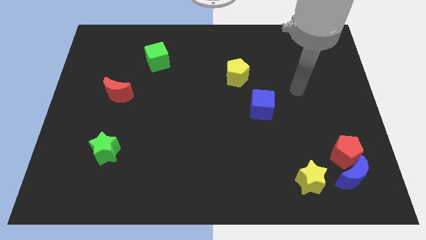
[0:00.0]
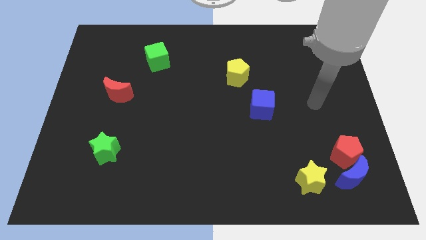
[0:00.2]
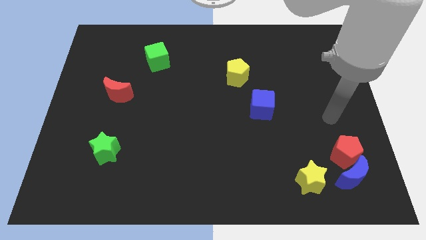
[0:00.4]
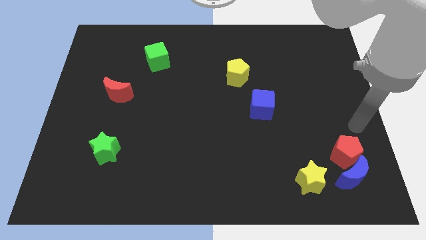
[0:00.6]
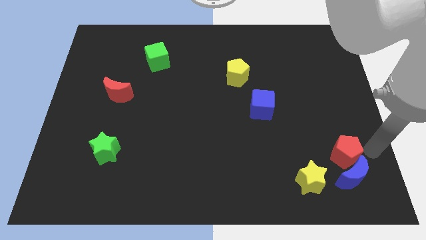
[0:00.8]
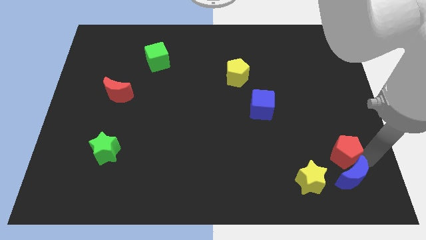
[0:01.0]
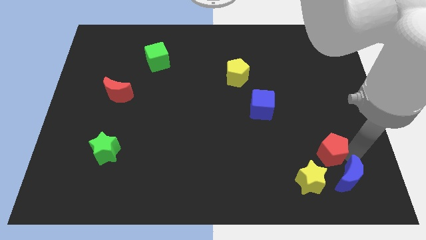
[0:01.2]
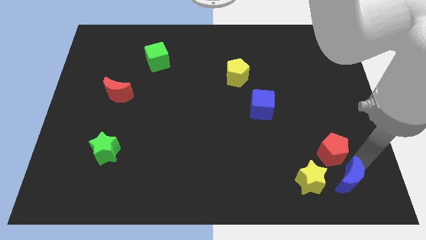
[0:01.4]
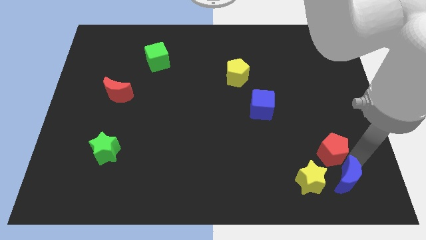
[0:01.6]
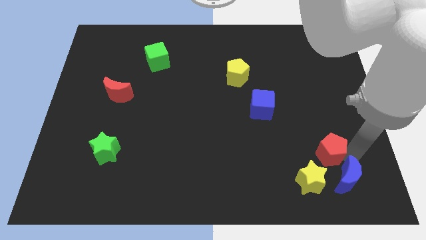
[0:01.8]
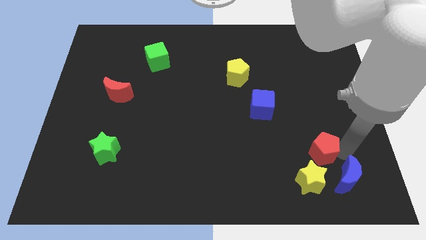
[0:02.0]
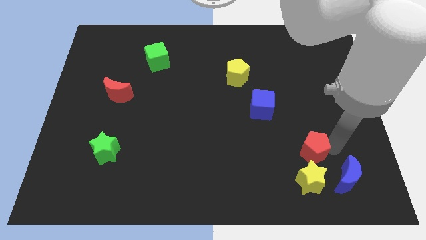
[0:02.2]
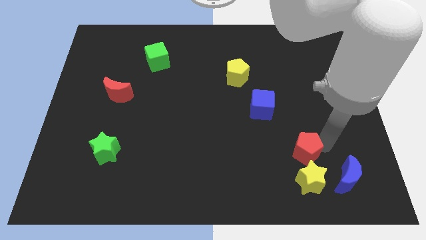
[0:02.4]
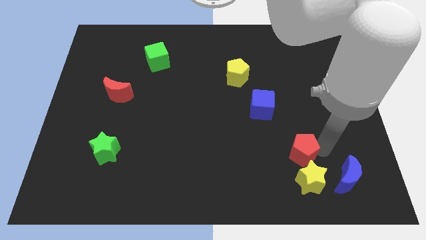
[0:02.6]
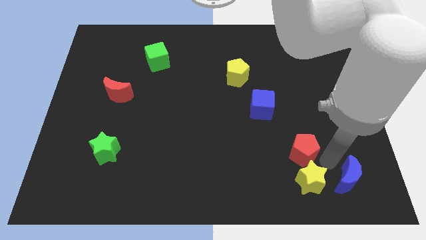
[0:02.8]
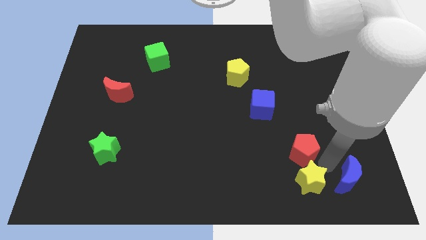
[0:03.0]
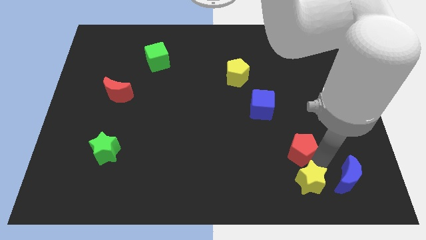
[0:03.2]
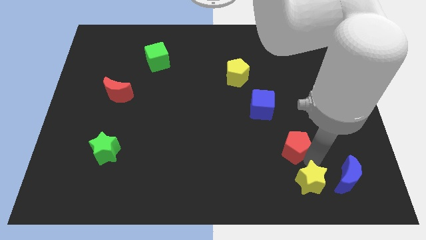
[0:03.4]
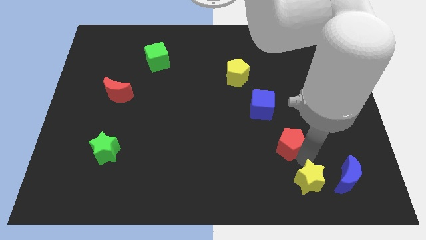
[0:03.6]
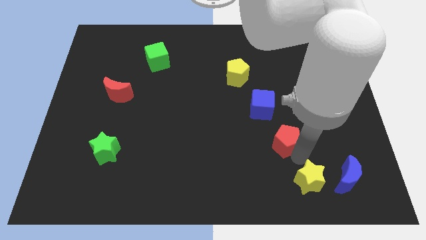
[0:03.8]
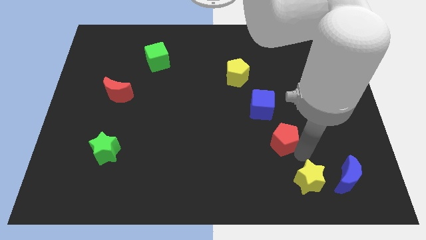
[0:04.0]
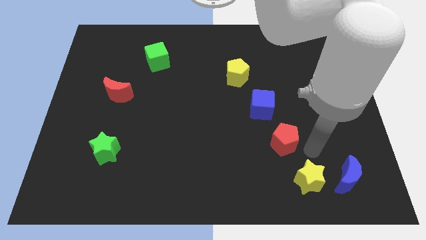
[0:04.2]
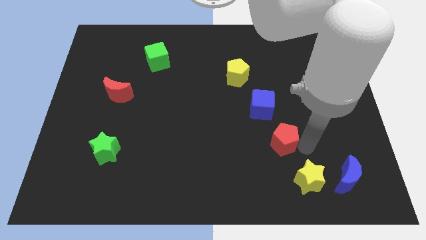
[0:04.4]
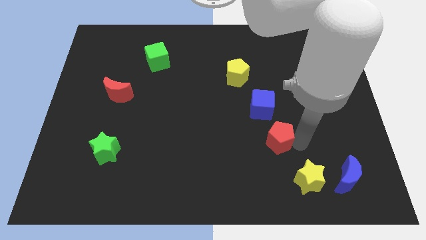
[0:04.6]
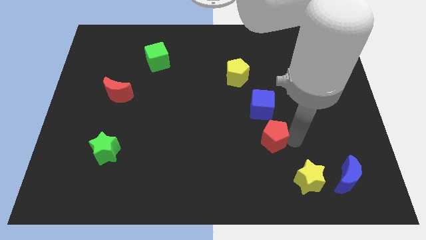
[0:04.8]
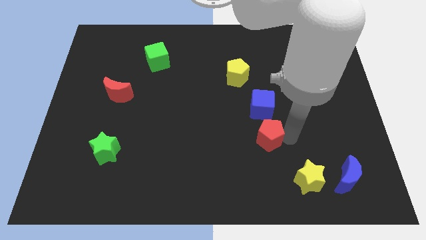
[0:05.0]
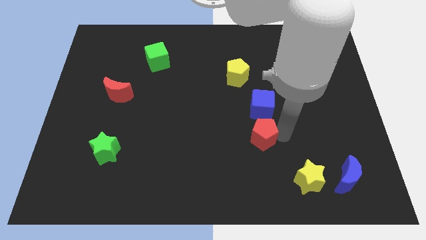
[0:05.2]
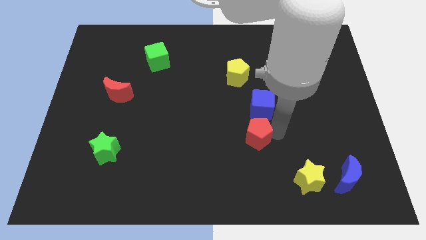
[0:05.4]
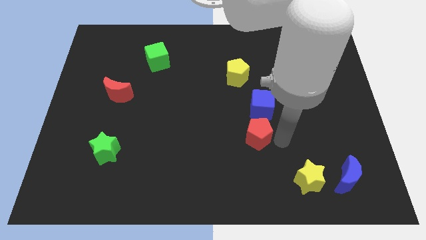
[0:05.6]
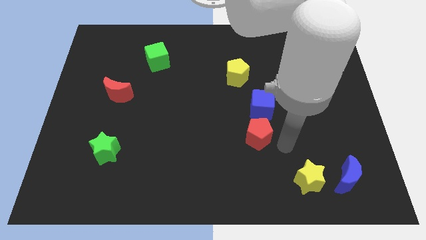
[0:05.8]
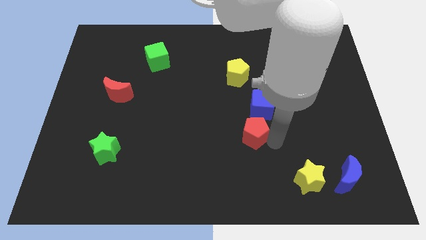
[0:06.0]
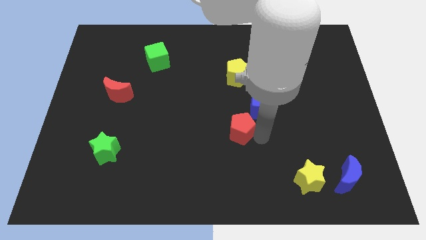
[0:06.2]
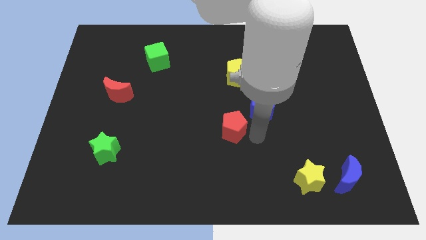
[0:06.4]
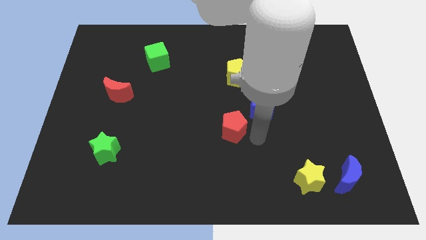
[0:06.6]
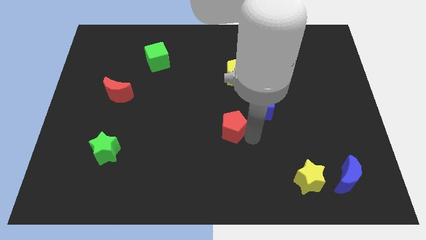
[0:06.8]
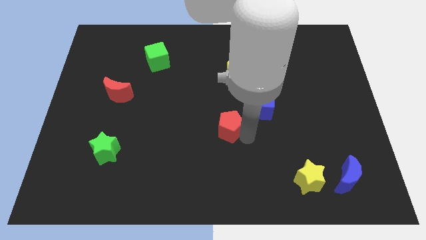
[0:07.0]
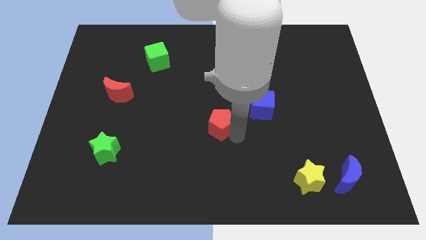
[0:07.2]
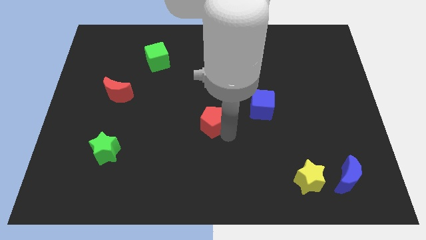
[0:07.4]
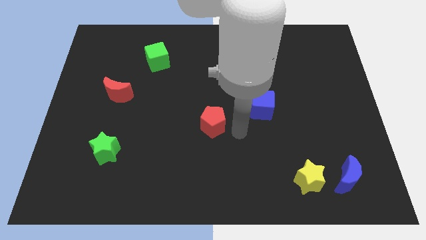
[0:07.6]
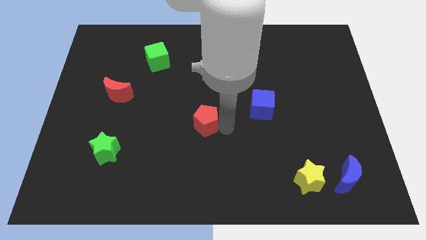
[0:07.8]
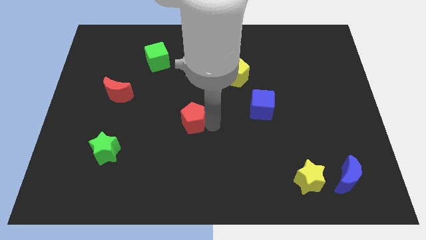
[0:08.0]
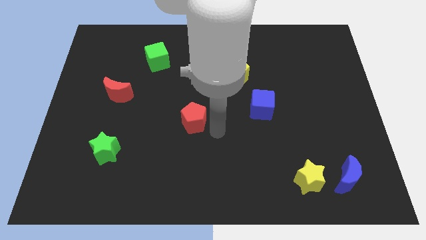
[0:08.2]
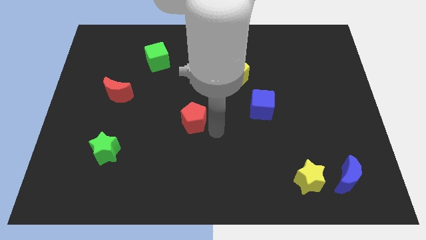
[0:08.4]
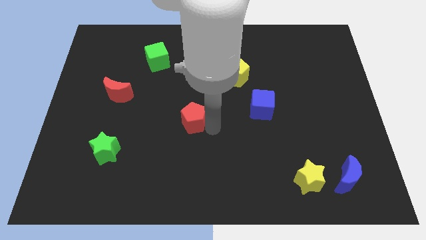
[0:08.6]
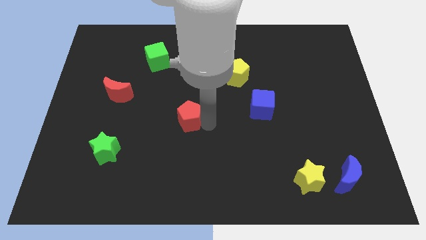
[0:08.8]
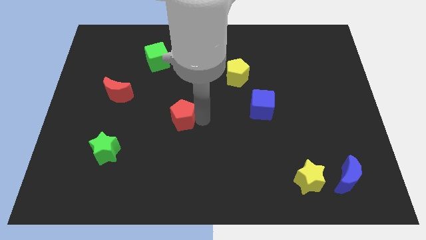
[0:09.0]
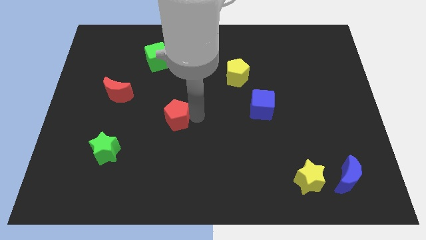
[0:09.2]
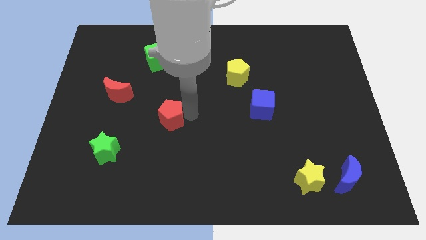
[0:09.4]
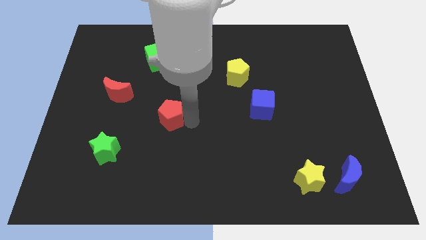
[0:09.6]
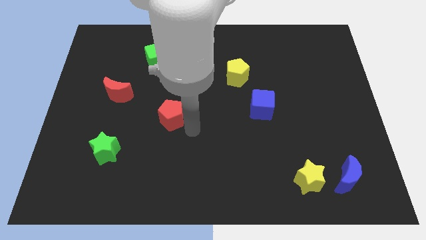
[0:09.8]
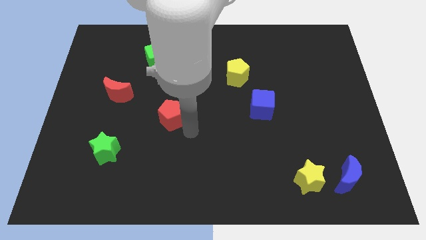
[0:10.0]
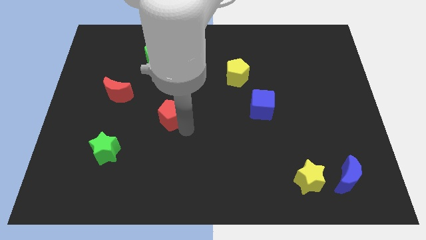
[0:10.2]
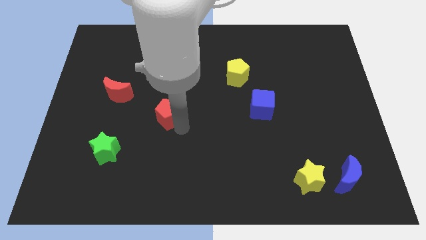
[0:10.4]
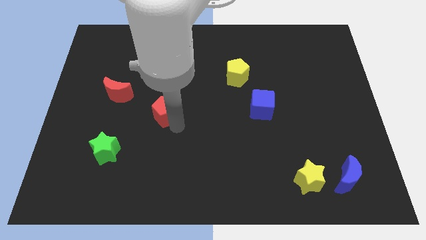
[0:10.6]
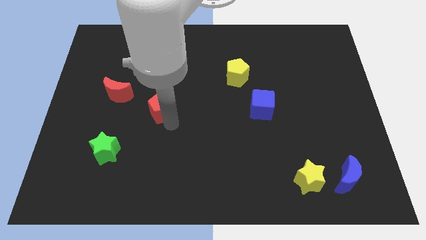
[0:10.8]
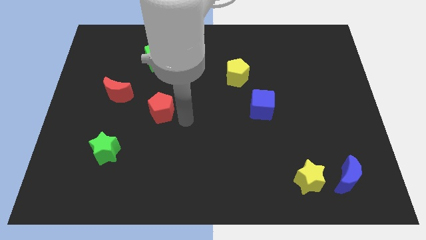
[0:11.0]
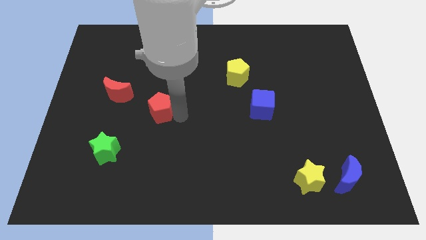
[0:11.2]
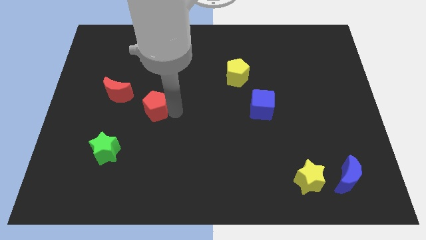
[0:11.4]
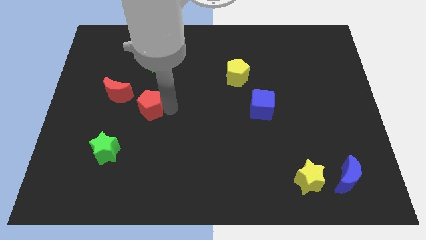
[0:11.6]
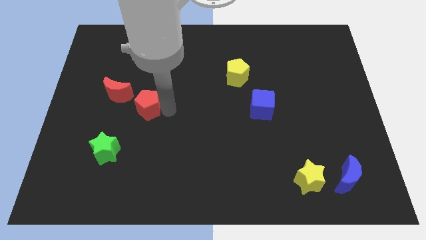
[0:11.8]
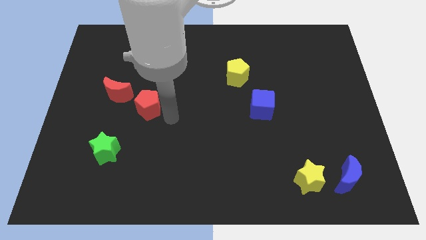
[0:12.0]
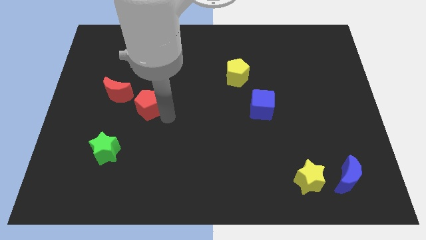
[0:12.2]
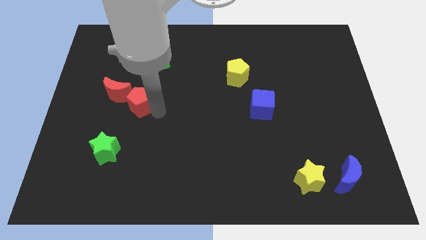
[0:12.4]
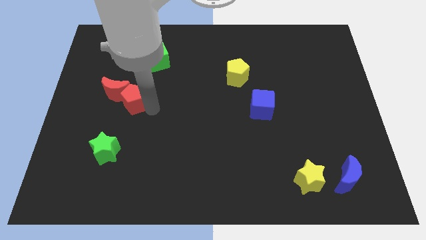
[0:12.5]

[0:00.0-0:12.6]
move the red pentagon close to the red moon
